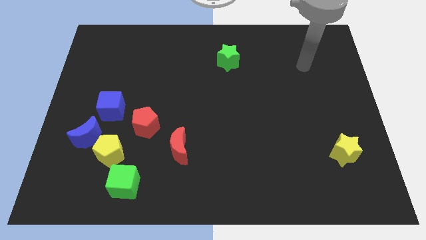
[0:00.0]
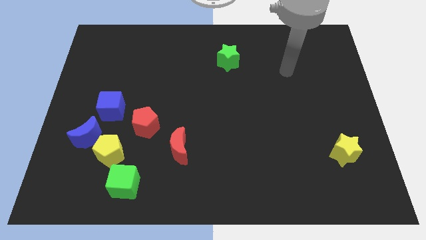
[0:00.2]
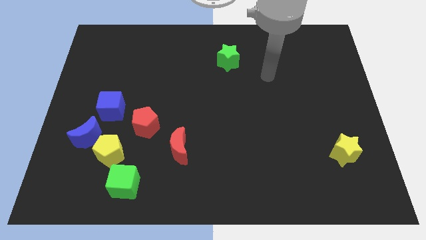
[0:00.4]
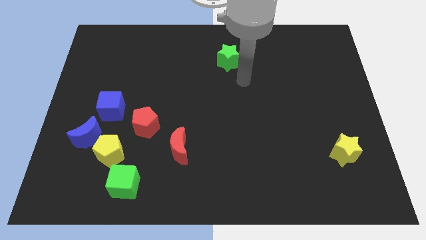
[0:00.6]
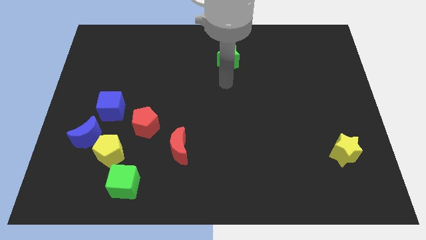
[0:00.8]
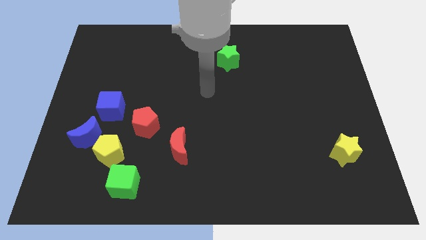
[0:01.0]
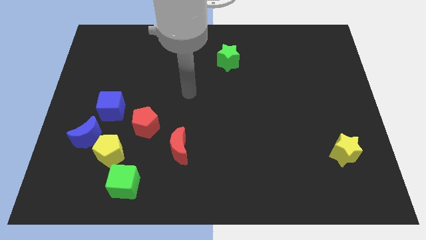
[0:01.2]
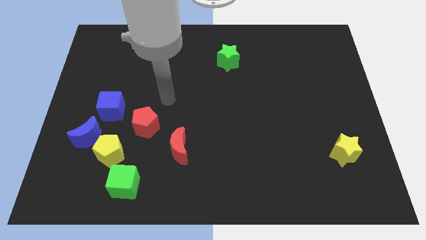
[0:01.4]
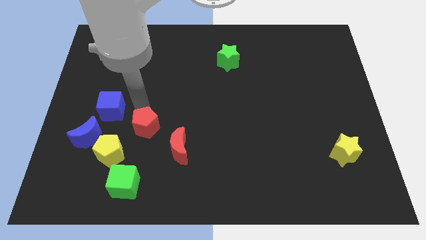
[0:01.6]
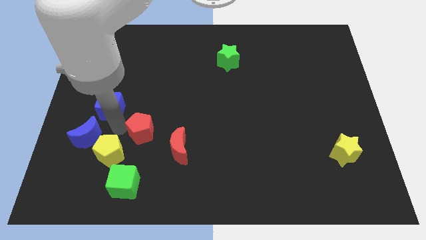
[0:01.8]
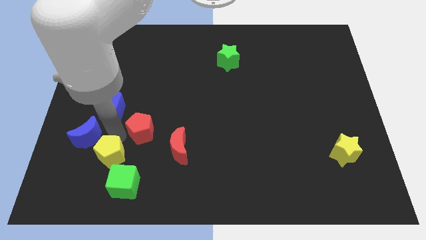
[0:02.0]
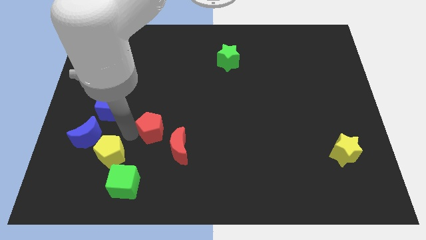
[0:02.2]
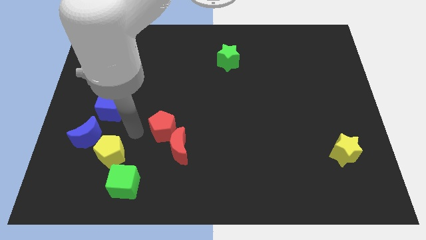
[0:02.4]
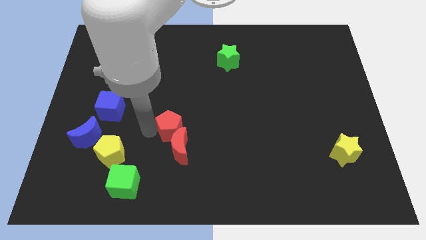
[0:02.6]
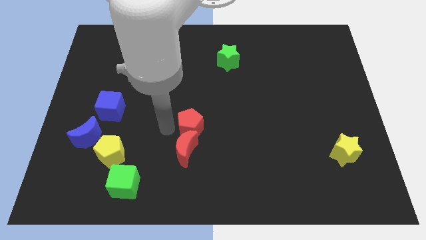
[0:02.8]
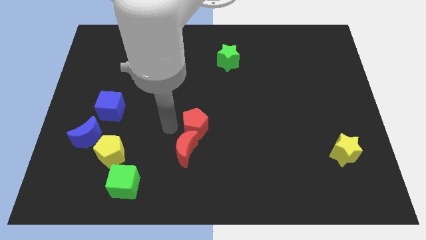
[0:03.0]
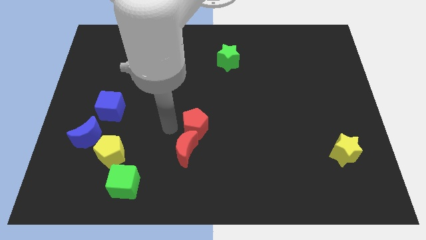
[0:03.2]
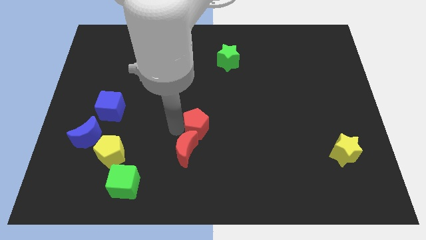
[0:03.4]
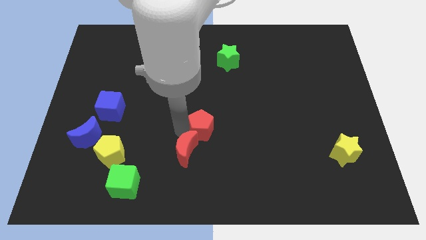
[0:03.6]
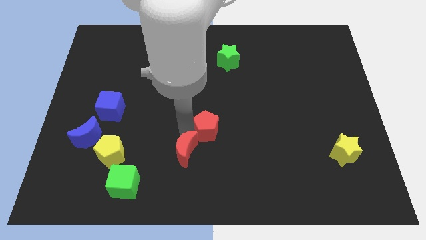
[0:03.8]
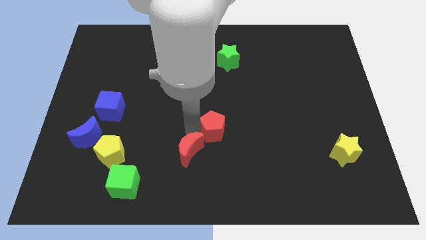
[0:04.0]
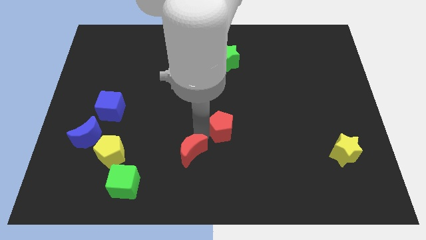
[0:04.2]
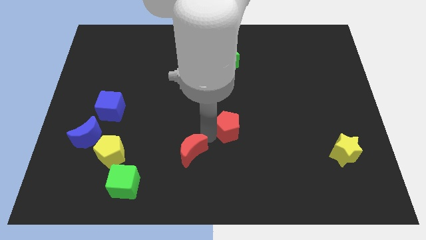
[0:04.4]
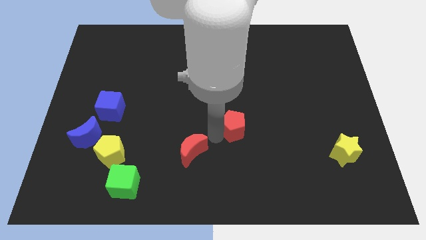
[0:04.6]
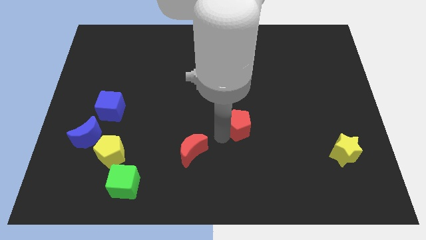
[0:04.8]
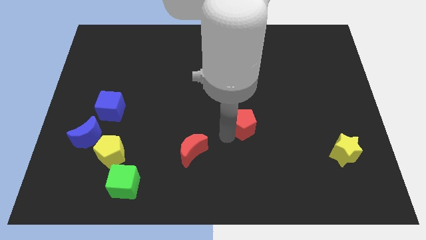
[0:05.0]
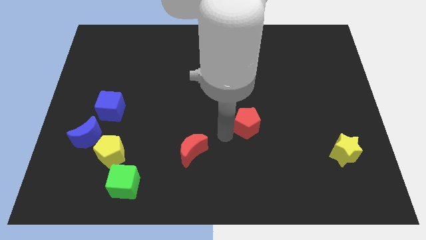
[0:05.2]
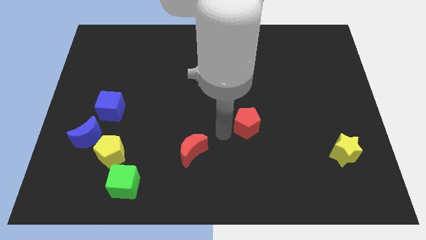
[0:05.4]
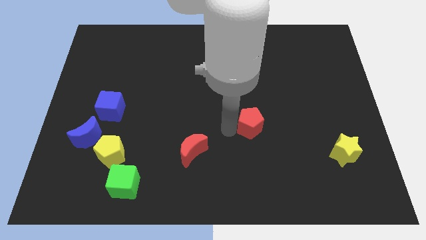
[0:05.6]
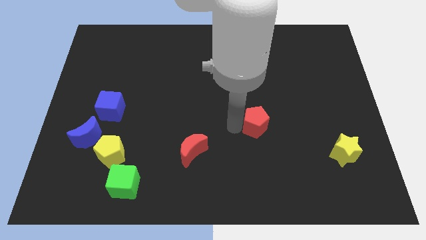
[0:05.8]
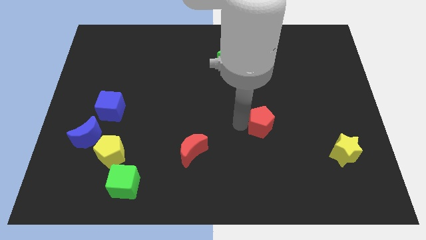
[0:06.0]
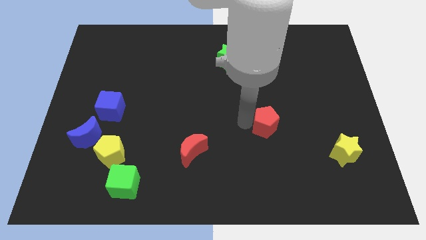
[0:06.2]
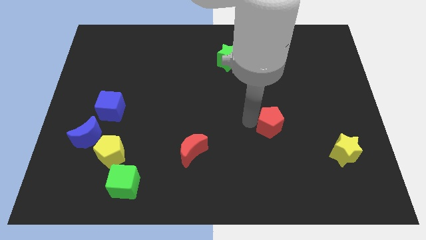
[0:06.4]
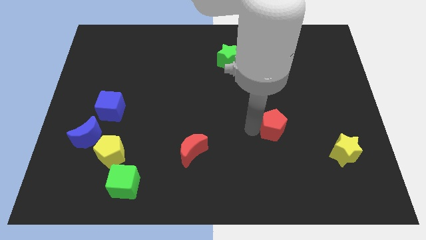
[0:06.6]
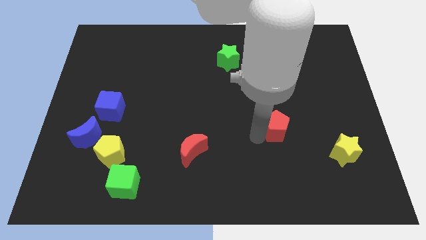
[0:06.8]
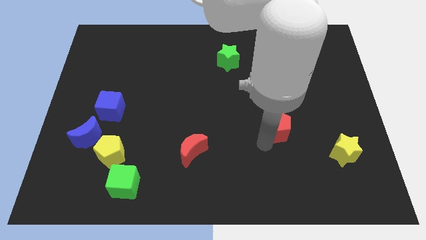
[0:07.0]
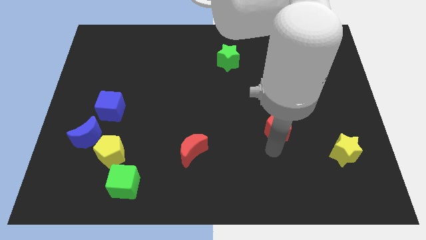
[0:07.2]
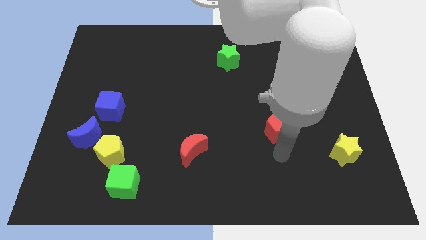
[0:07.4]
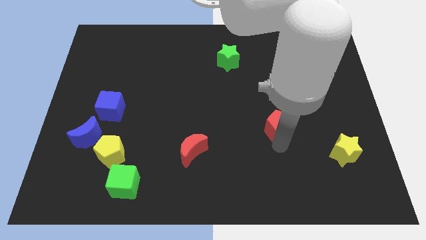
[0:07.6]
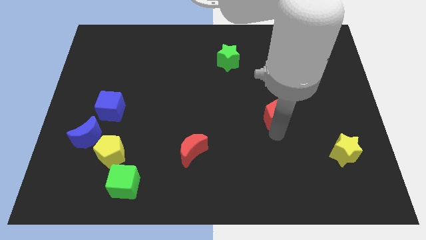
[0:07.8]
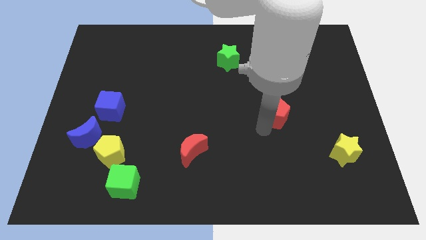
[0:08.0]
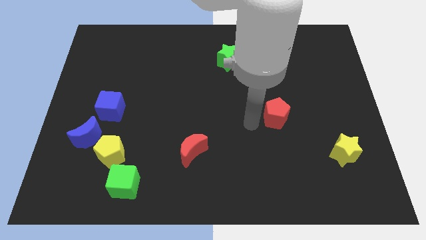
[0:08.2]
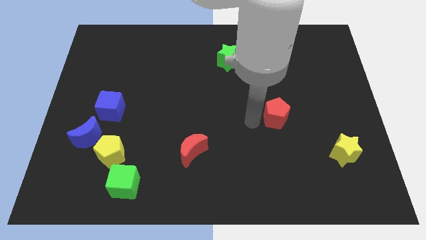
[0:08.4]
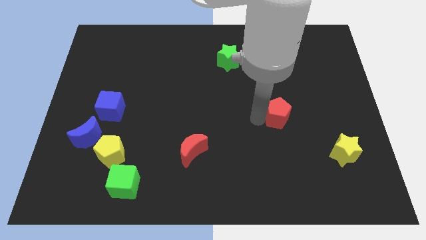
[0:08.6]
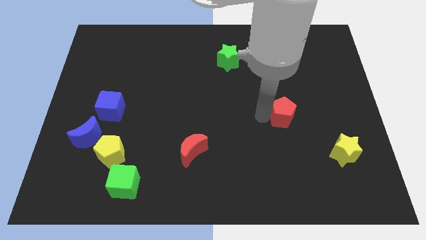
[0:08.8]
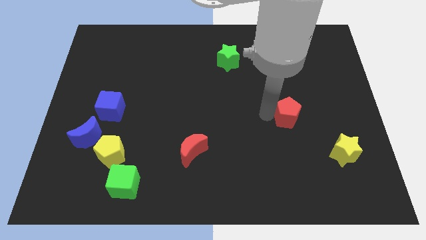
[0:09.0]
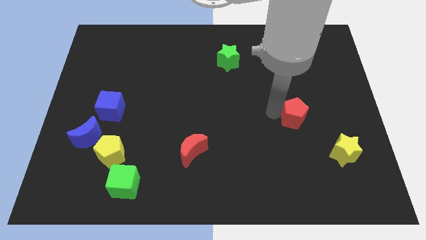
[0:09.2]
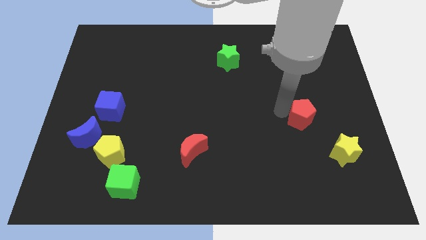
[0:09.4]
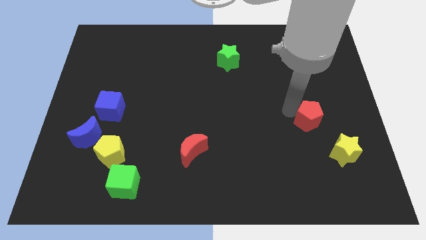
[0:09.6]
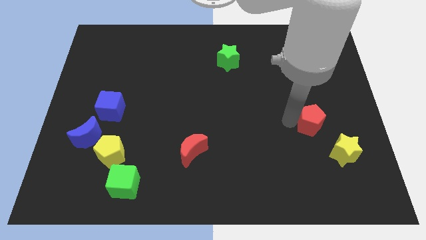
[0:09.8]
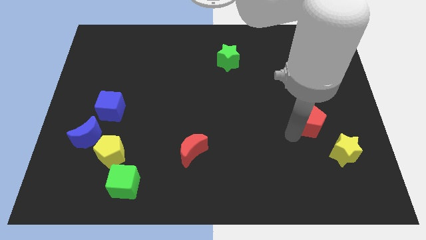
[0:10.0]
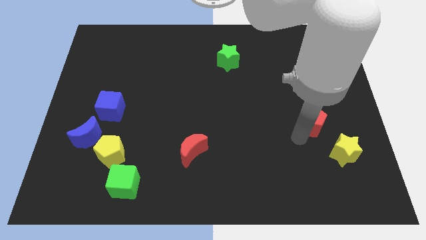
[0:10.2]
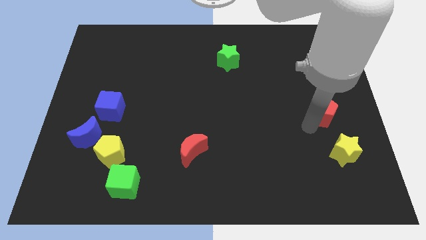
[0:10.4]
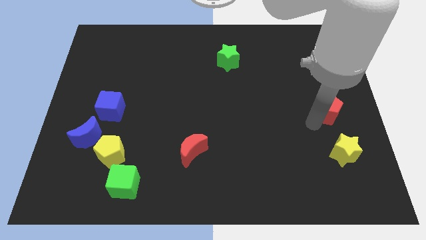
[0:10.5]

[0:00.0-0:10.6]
push the red pentagon to the center right

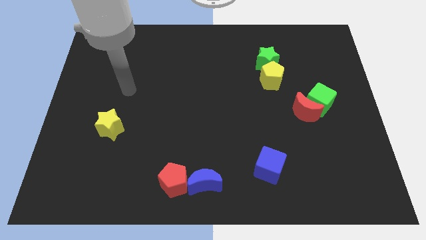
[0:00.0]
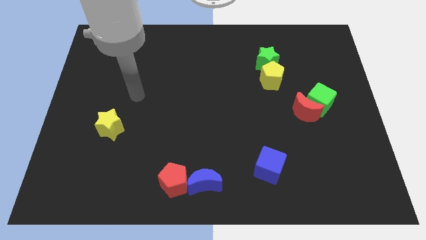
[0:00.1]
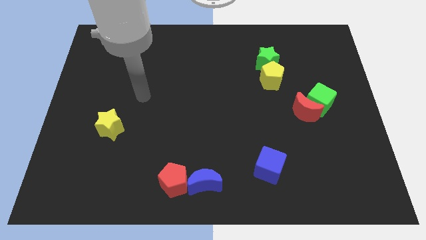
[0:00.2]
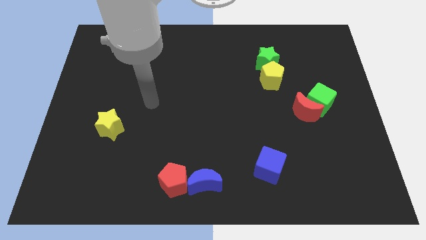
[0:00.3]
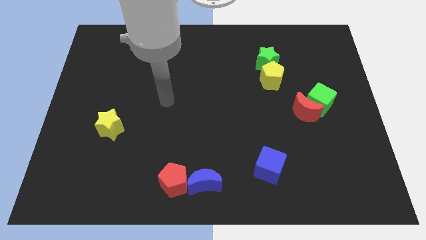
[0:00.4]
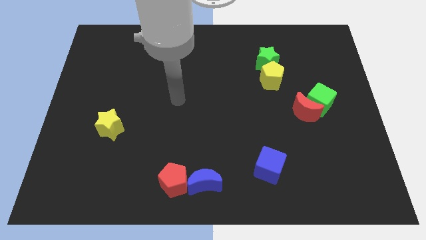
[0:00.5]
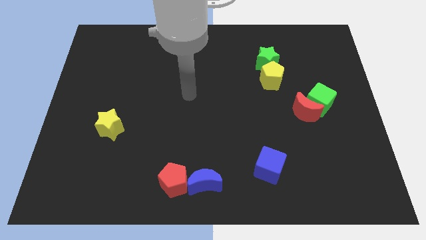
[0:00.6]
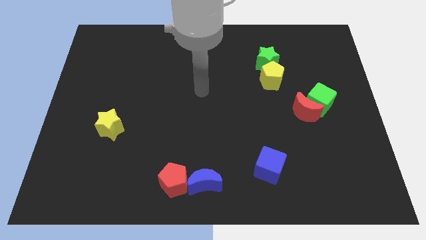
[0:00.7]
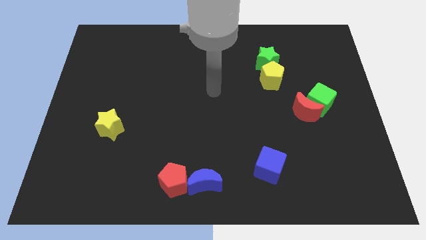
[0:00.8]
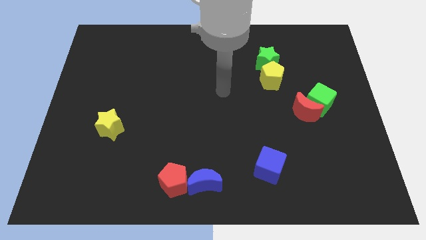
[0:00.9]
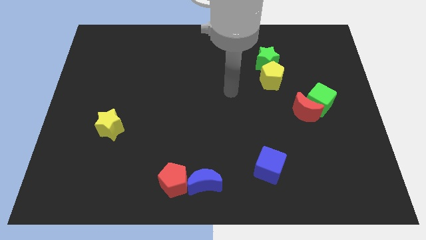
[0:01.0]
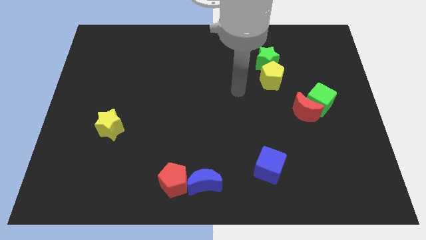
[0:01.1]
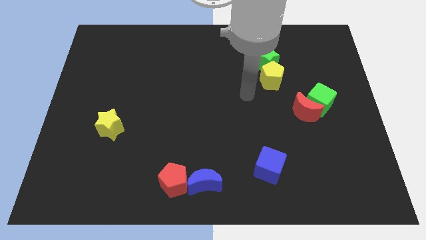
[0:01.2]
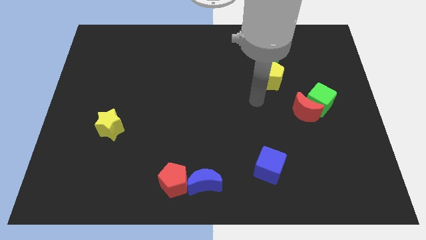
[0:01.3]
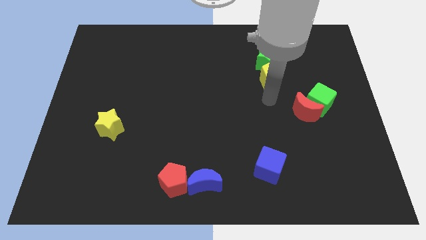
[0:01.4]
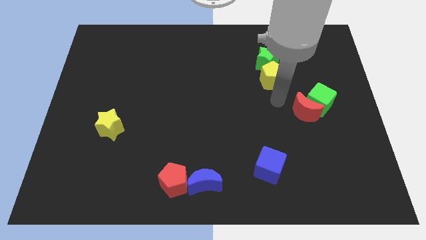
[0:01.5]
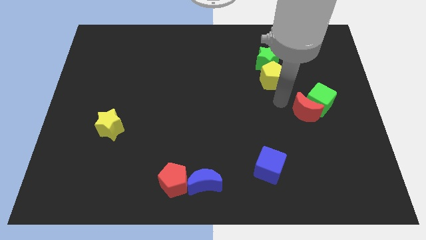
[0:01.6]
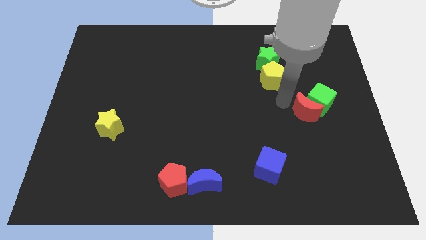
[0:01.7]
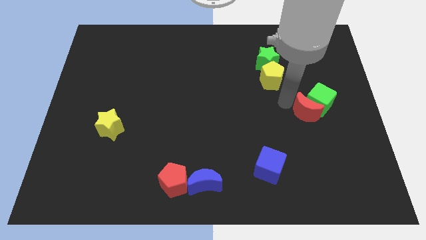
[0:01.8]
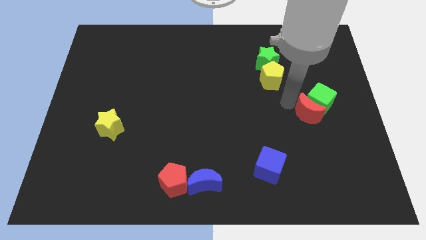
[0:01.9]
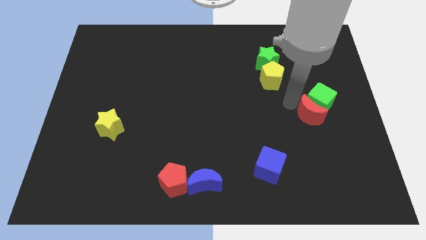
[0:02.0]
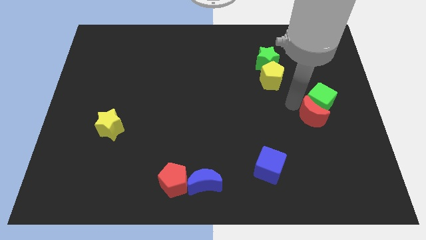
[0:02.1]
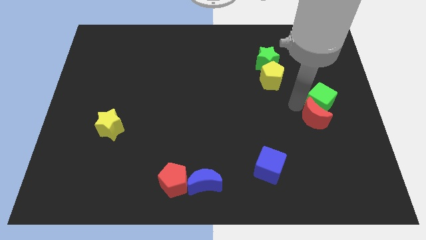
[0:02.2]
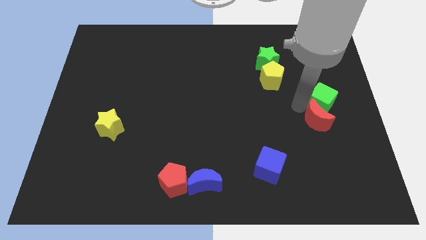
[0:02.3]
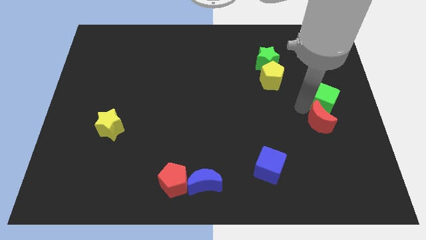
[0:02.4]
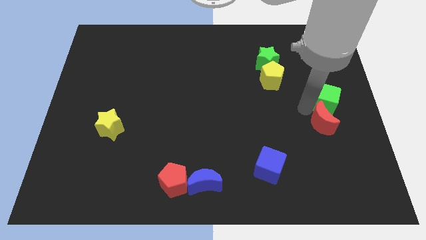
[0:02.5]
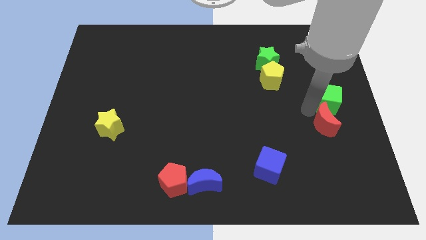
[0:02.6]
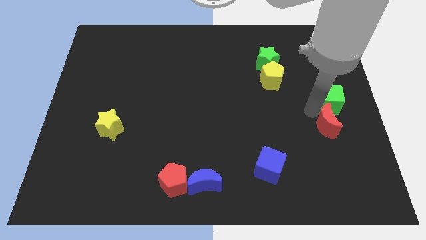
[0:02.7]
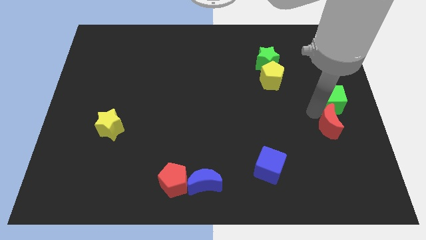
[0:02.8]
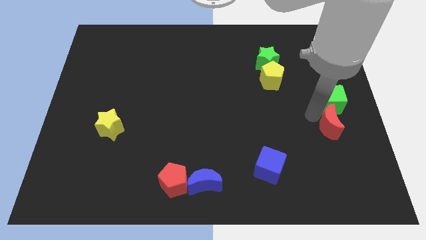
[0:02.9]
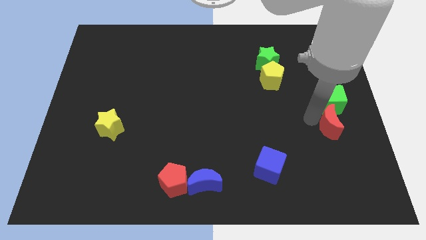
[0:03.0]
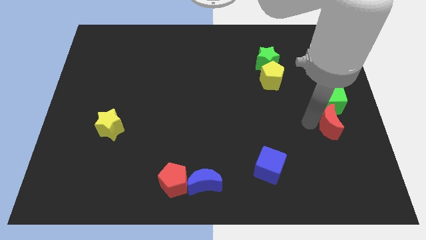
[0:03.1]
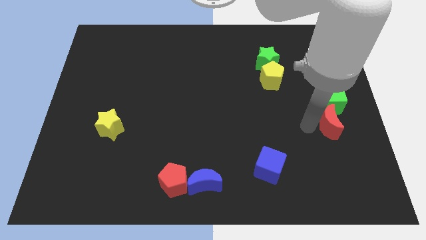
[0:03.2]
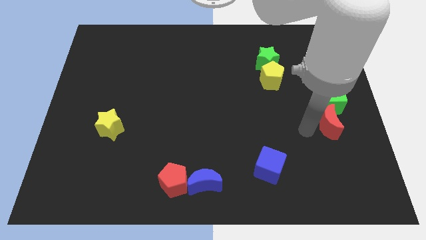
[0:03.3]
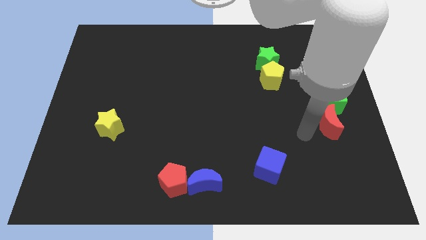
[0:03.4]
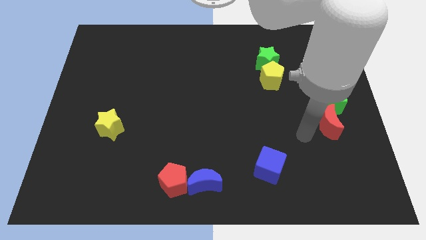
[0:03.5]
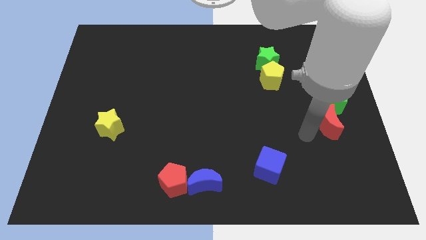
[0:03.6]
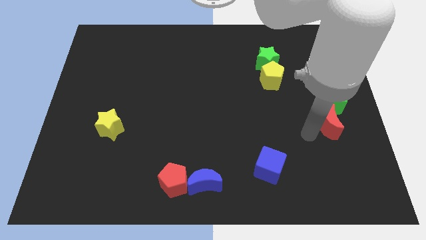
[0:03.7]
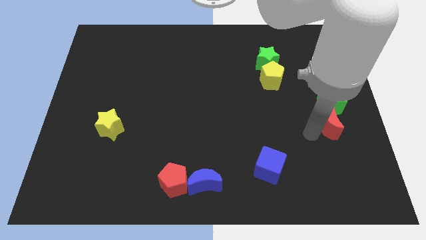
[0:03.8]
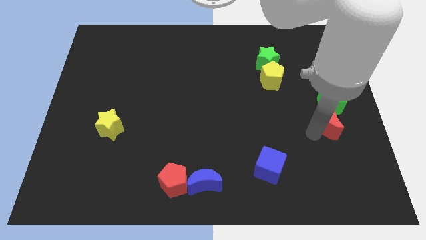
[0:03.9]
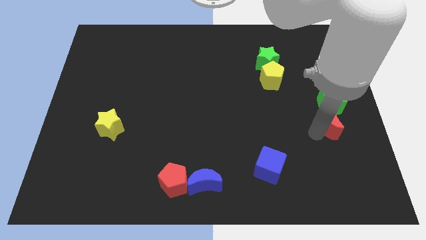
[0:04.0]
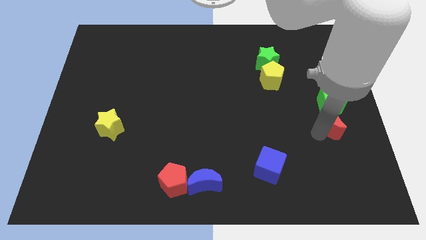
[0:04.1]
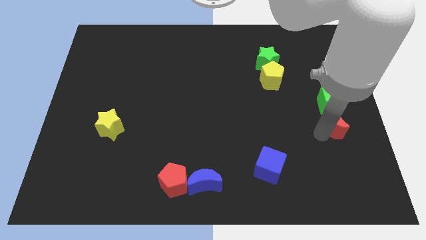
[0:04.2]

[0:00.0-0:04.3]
put the red moon to the right side
